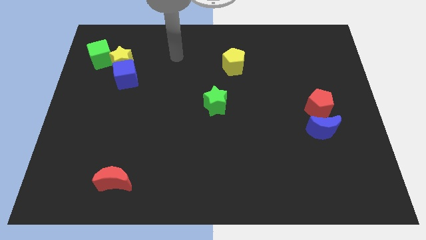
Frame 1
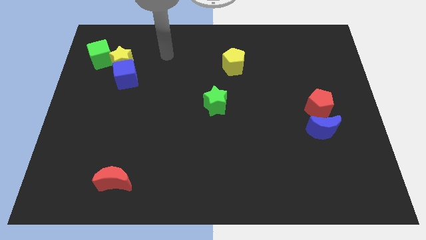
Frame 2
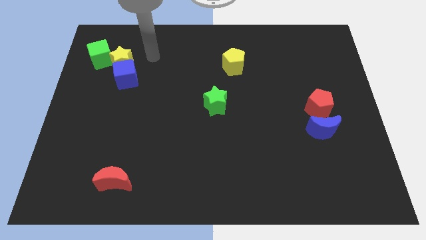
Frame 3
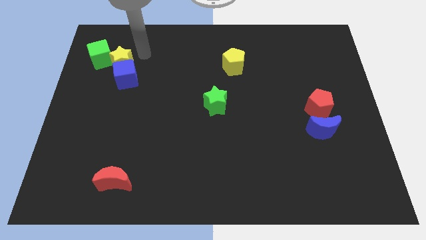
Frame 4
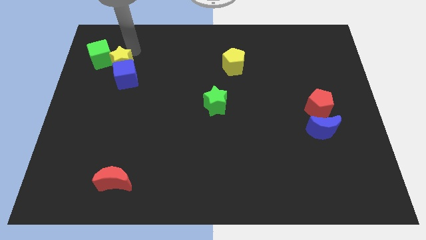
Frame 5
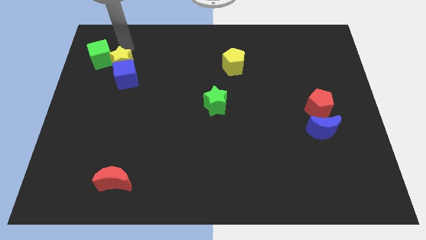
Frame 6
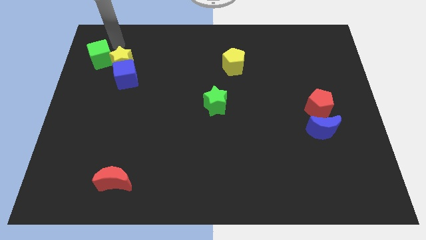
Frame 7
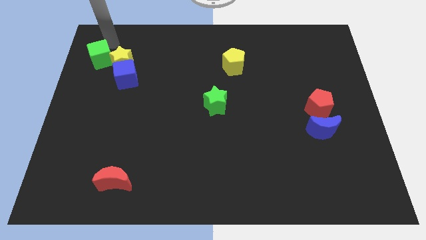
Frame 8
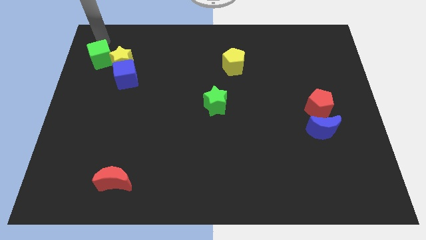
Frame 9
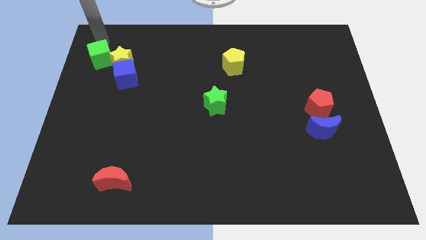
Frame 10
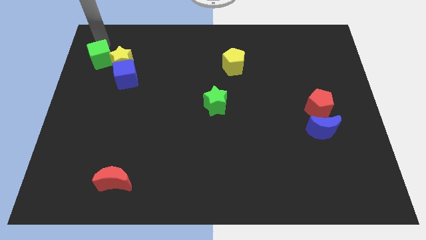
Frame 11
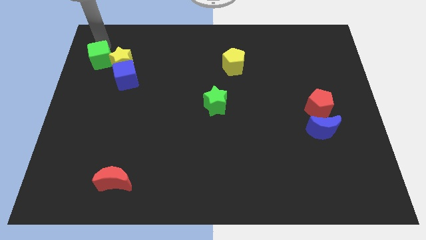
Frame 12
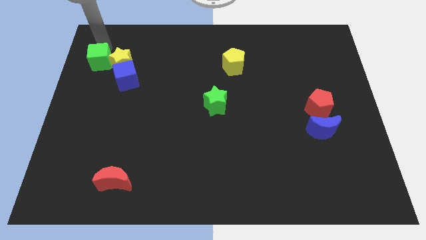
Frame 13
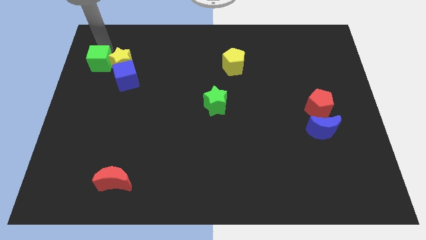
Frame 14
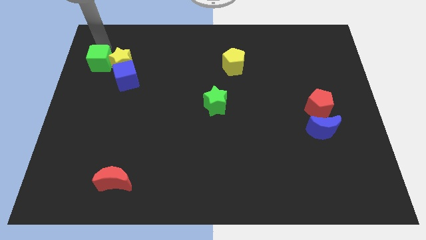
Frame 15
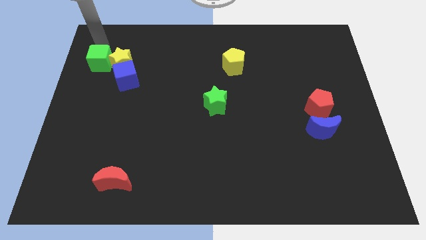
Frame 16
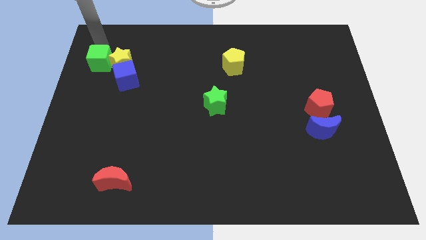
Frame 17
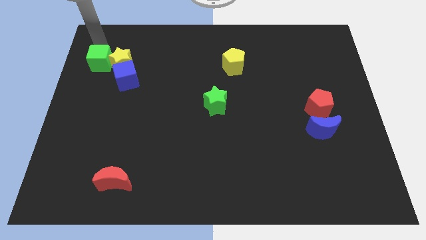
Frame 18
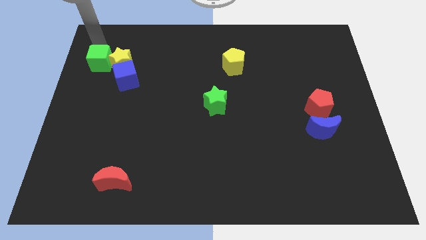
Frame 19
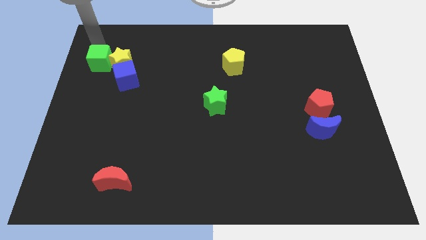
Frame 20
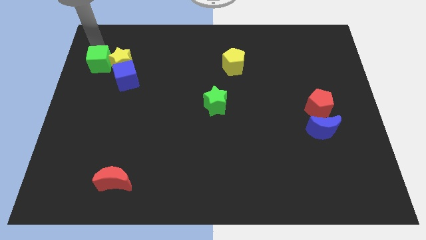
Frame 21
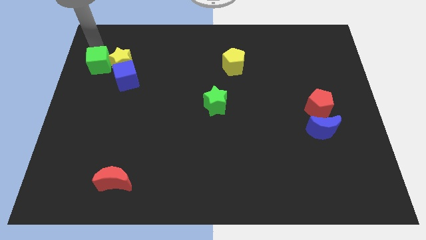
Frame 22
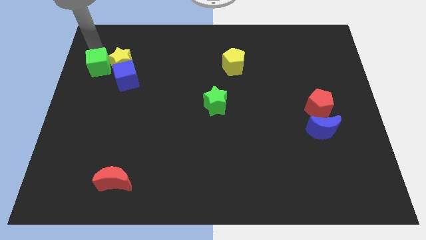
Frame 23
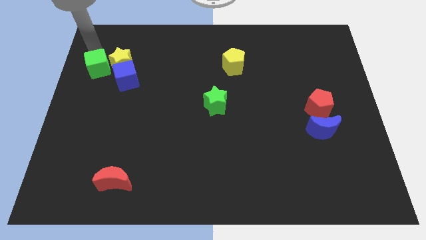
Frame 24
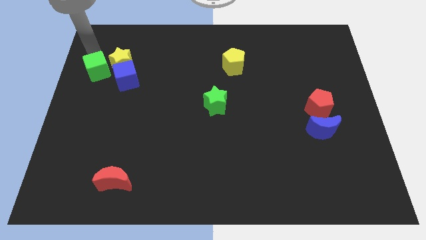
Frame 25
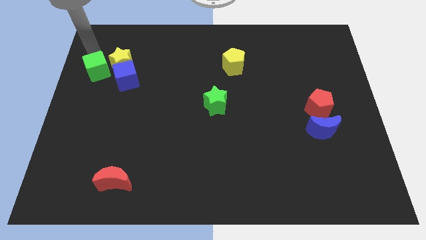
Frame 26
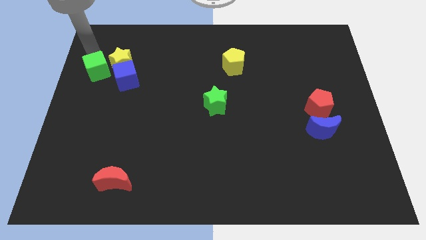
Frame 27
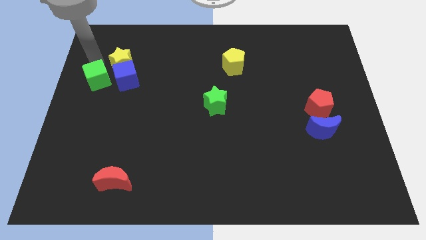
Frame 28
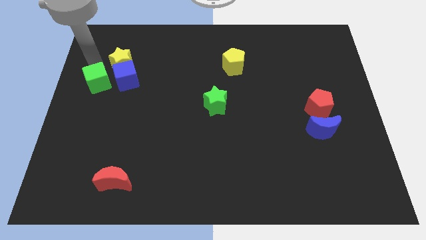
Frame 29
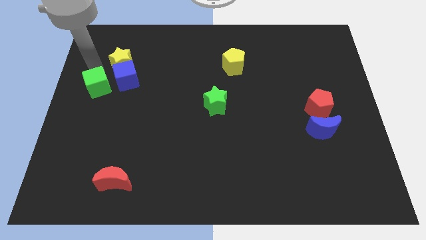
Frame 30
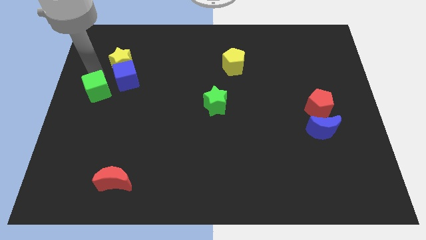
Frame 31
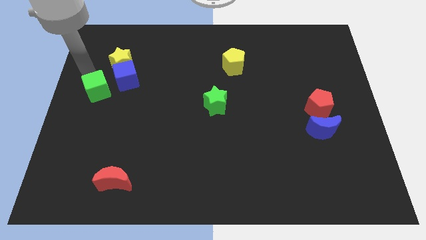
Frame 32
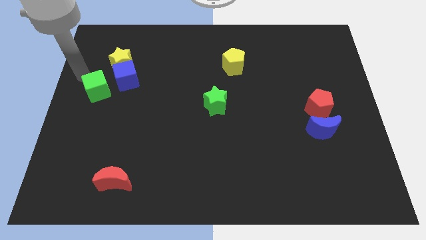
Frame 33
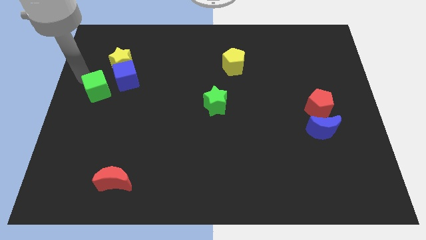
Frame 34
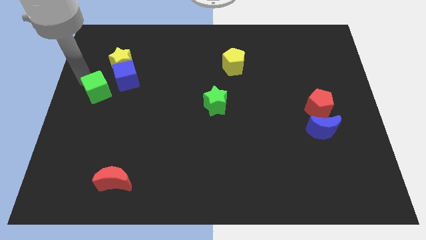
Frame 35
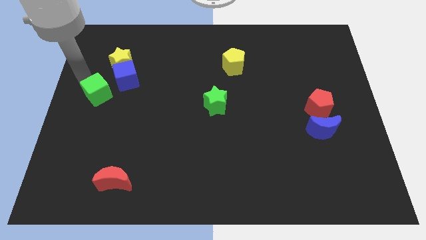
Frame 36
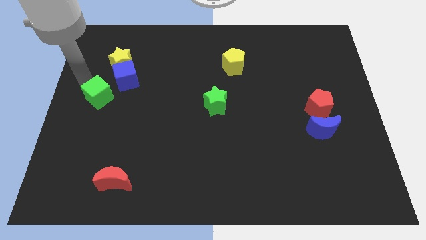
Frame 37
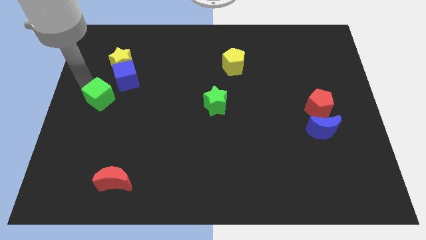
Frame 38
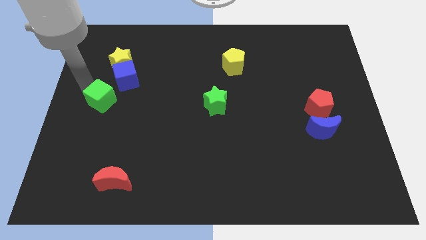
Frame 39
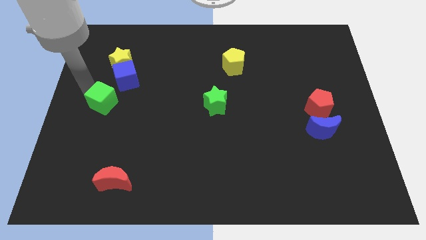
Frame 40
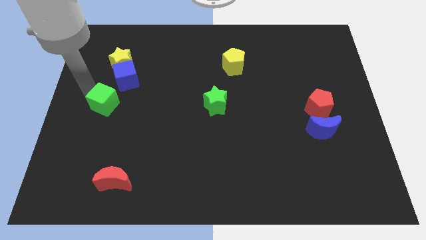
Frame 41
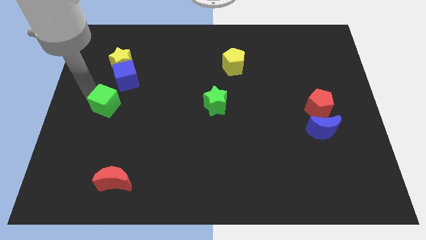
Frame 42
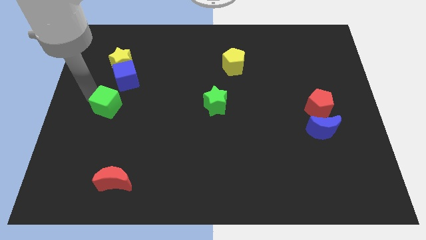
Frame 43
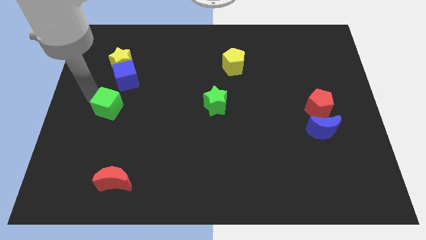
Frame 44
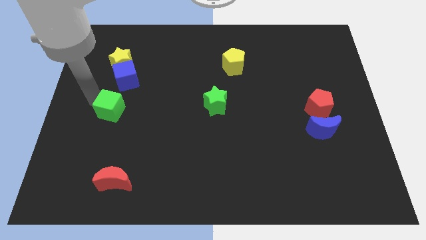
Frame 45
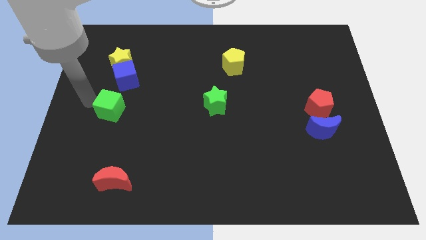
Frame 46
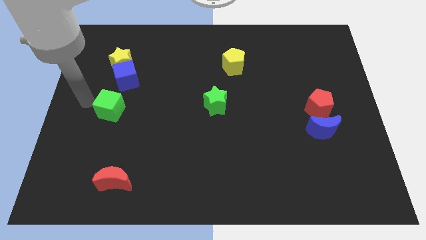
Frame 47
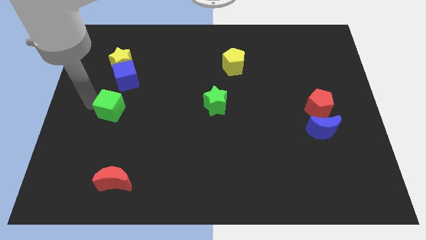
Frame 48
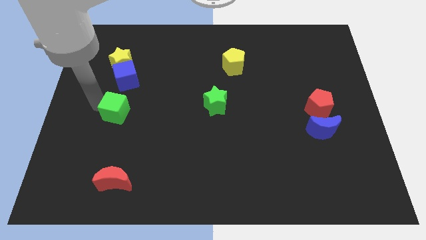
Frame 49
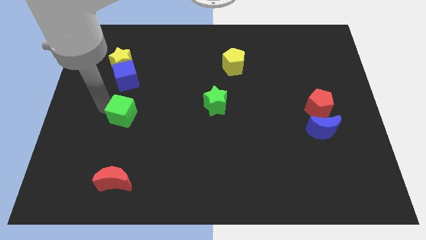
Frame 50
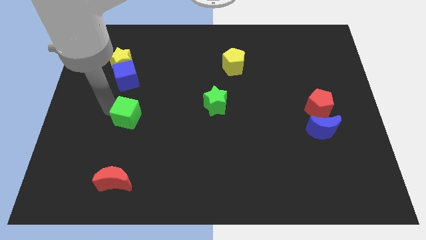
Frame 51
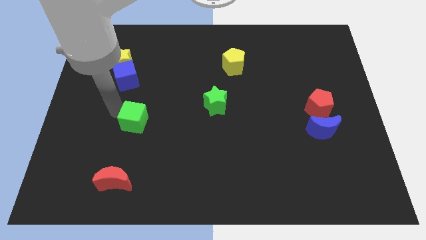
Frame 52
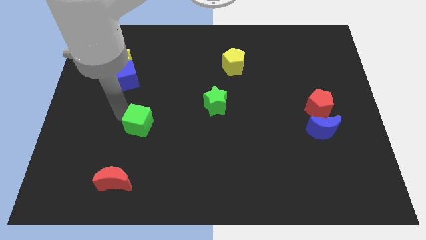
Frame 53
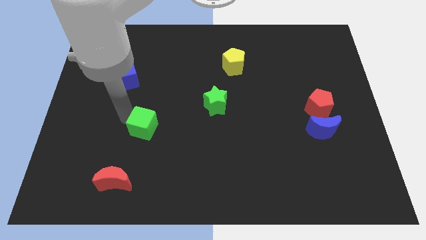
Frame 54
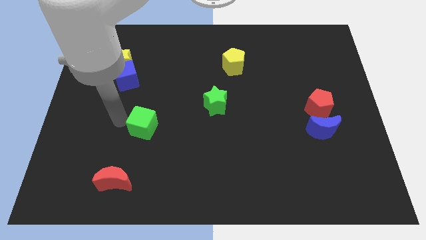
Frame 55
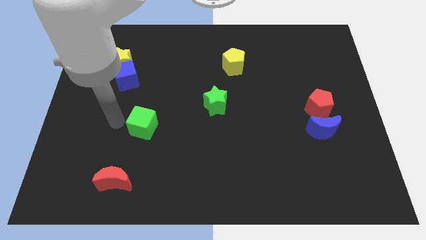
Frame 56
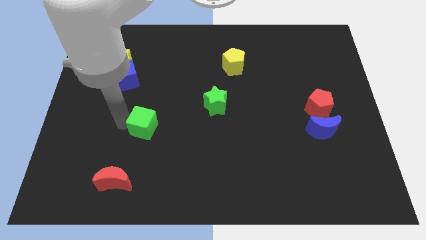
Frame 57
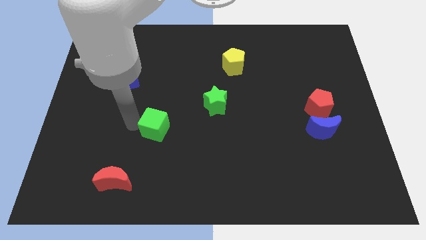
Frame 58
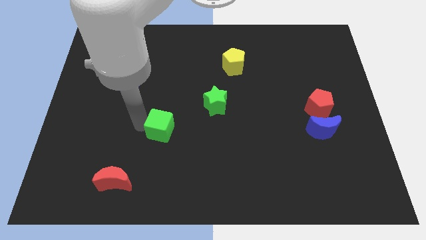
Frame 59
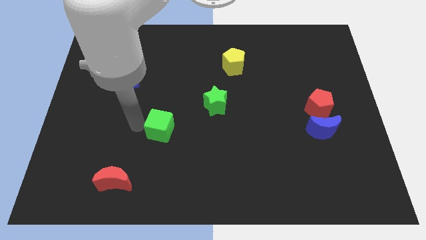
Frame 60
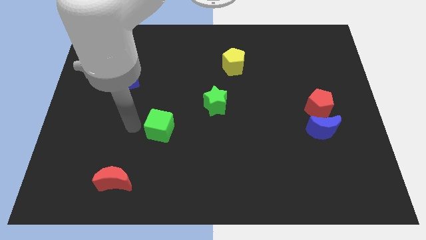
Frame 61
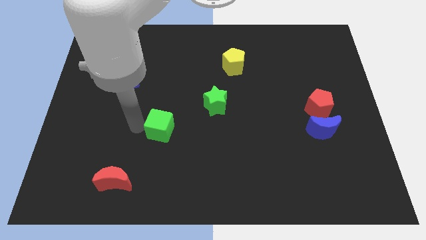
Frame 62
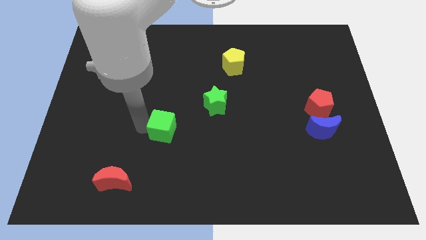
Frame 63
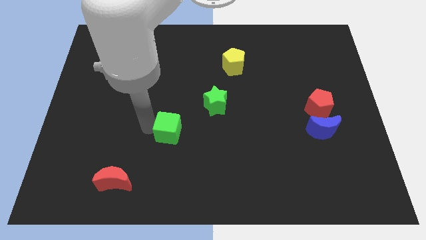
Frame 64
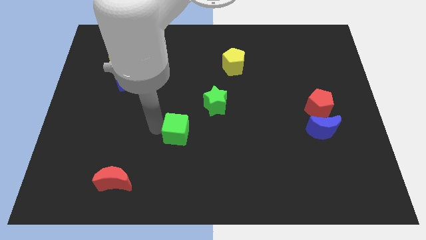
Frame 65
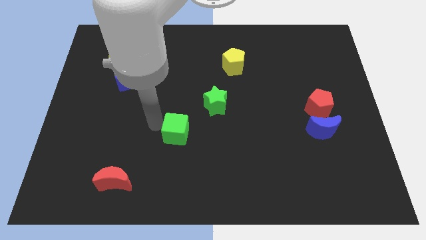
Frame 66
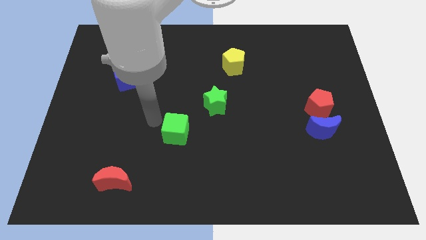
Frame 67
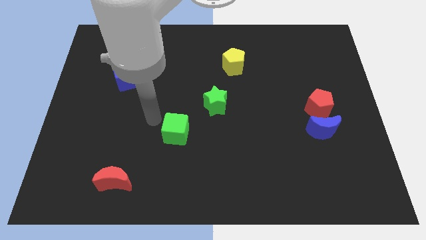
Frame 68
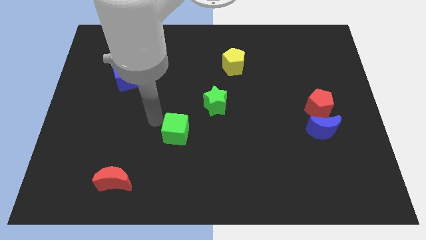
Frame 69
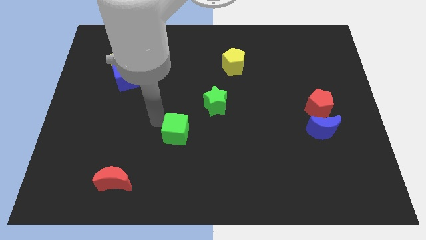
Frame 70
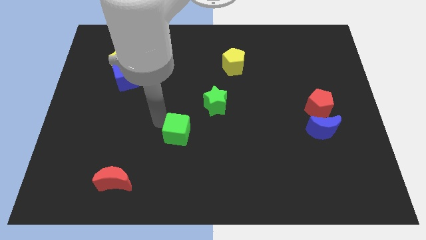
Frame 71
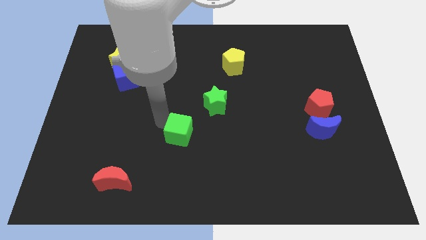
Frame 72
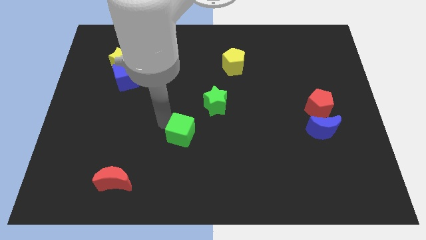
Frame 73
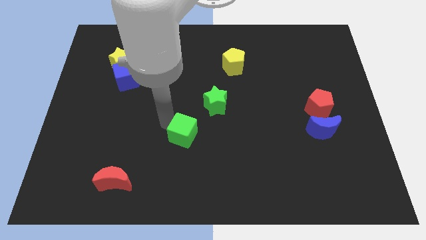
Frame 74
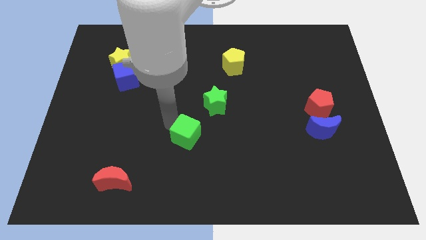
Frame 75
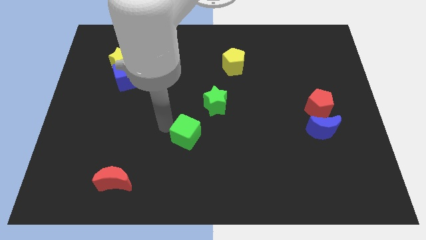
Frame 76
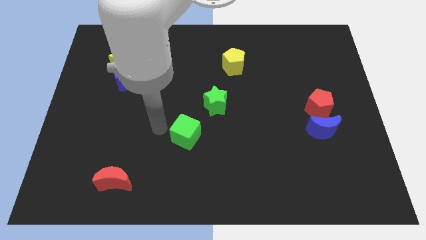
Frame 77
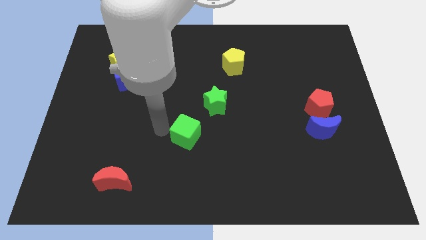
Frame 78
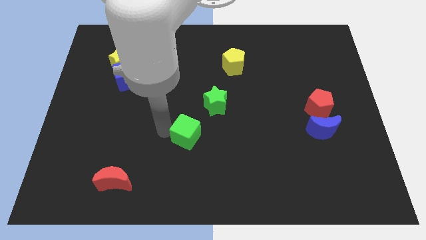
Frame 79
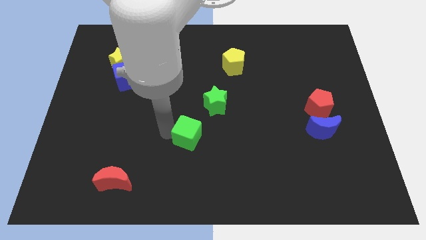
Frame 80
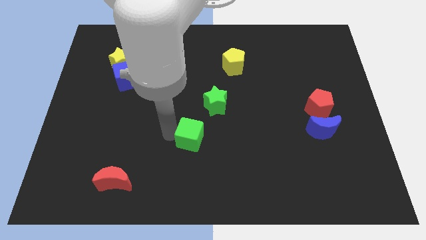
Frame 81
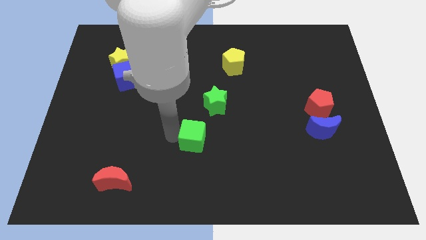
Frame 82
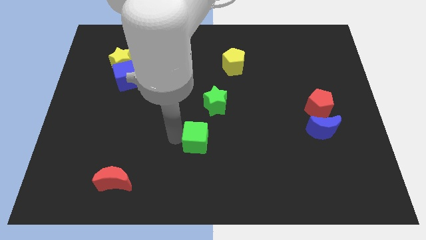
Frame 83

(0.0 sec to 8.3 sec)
slide the green cube to the bottom of the green star
